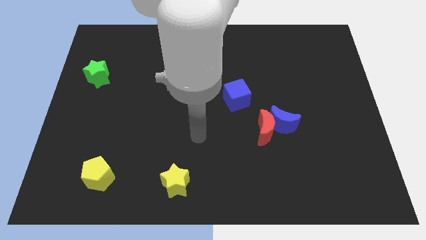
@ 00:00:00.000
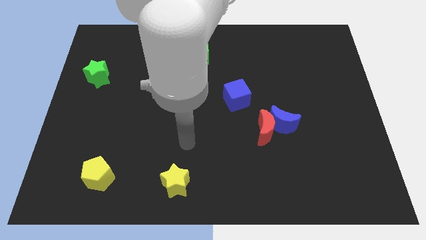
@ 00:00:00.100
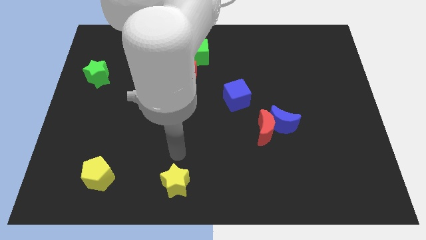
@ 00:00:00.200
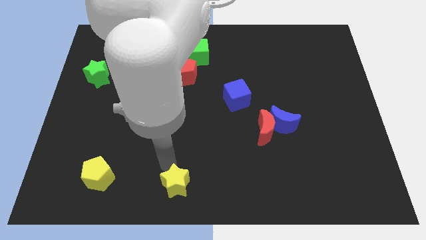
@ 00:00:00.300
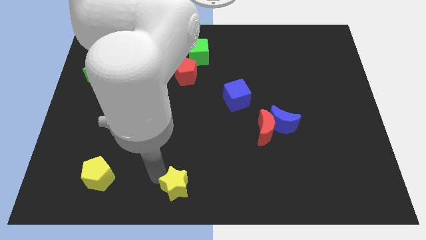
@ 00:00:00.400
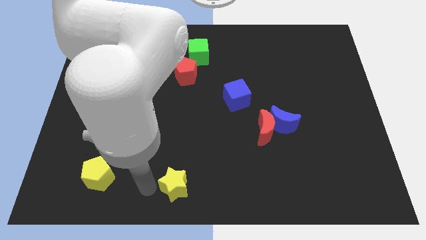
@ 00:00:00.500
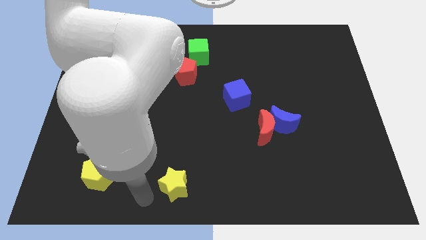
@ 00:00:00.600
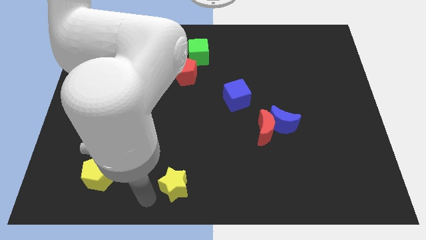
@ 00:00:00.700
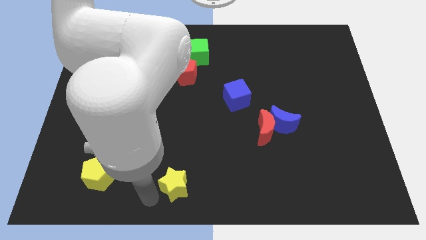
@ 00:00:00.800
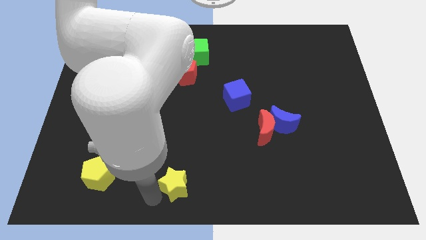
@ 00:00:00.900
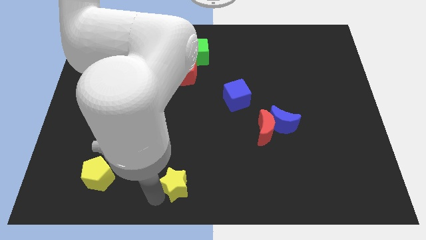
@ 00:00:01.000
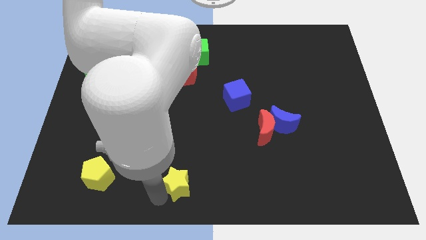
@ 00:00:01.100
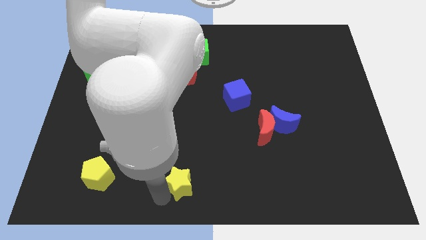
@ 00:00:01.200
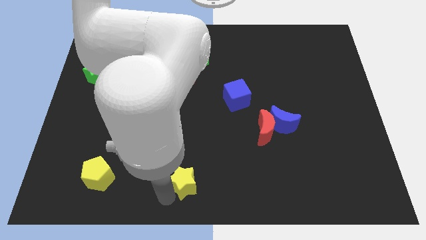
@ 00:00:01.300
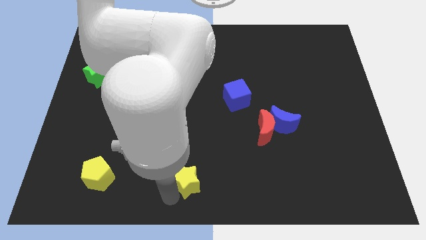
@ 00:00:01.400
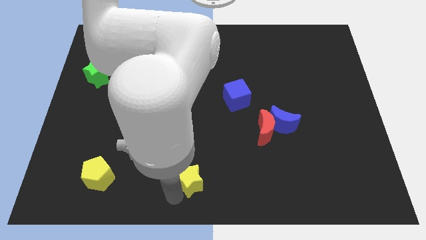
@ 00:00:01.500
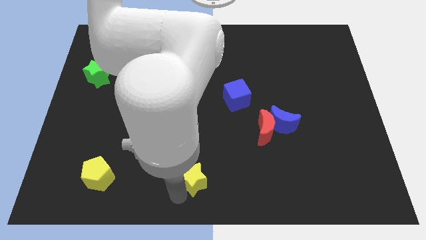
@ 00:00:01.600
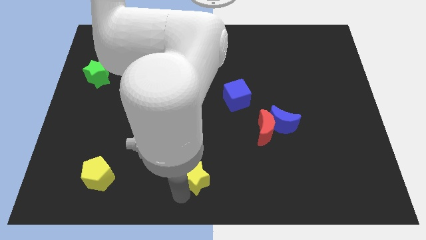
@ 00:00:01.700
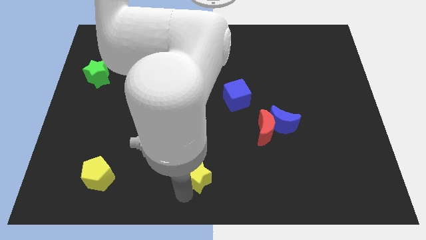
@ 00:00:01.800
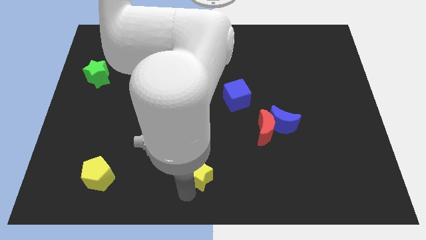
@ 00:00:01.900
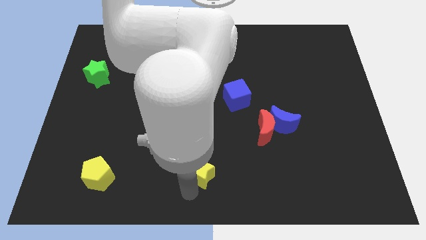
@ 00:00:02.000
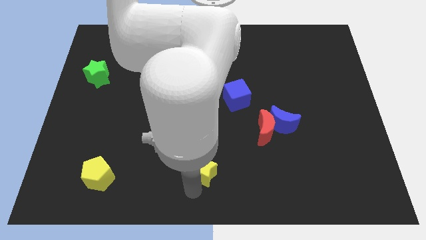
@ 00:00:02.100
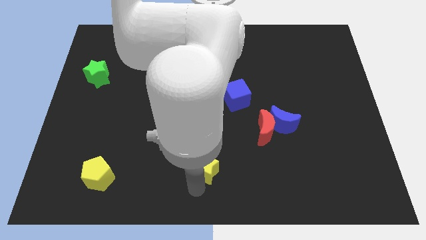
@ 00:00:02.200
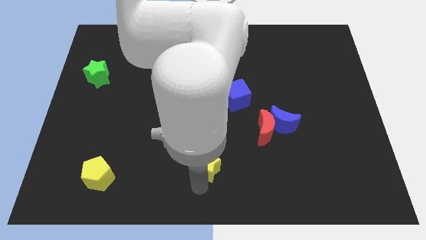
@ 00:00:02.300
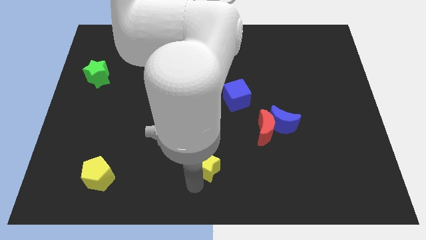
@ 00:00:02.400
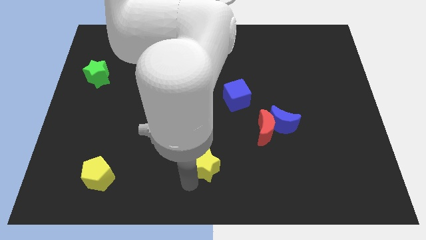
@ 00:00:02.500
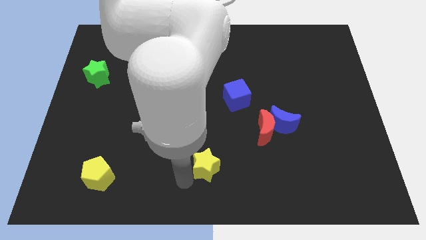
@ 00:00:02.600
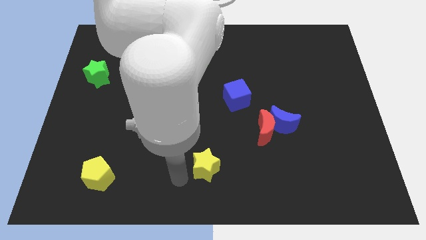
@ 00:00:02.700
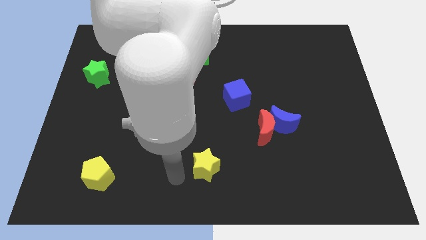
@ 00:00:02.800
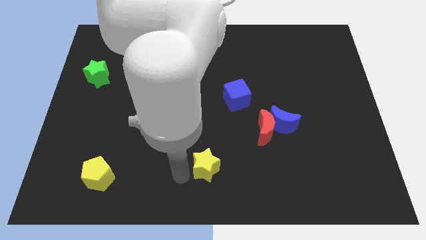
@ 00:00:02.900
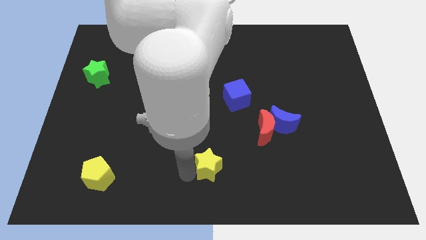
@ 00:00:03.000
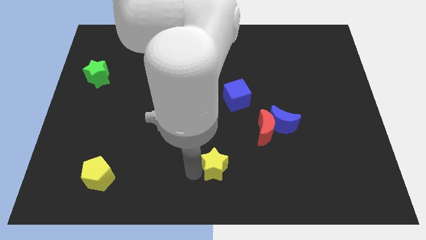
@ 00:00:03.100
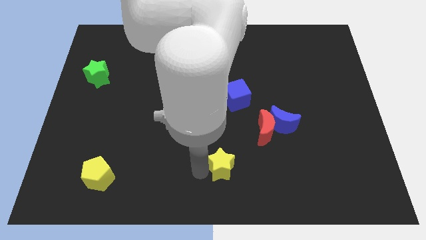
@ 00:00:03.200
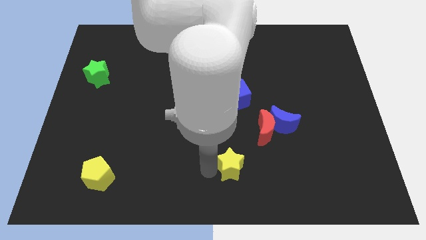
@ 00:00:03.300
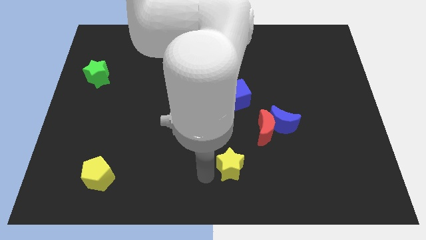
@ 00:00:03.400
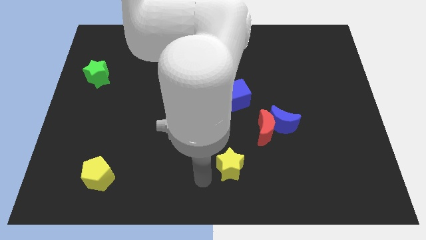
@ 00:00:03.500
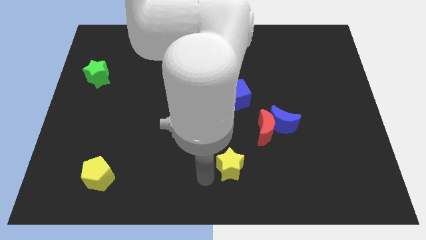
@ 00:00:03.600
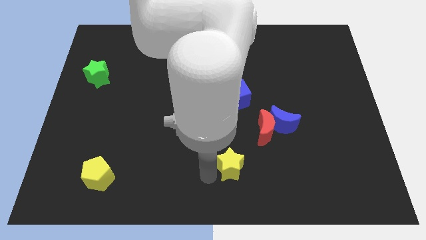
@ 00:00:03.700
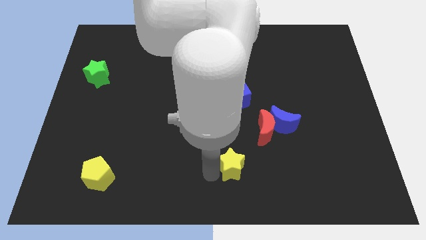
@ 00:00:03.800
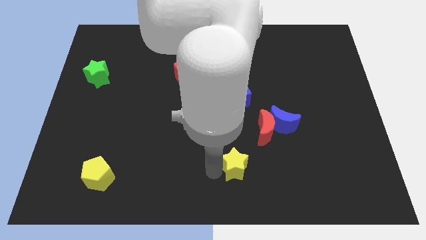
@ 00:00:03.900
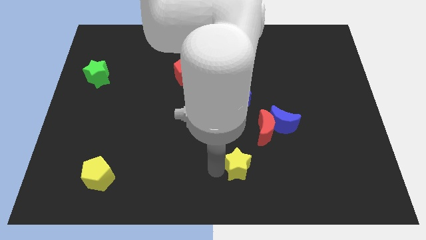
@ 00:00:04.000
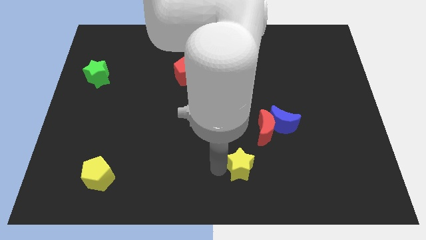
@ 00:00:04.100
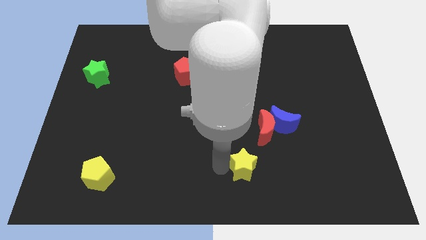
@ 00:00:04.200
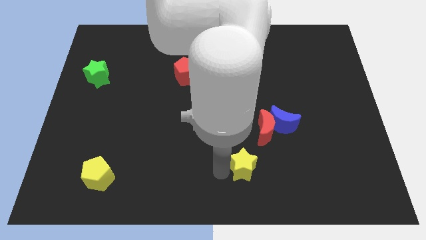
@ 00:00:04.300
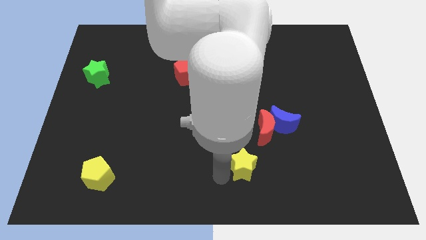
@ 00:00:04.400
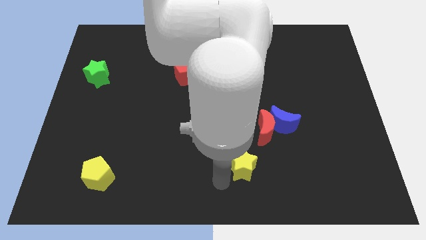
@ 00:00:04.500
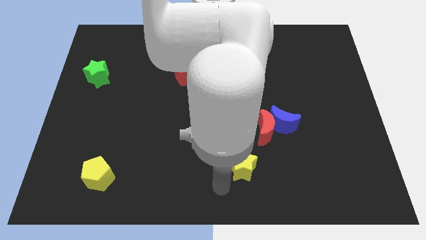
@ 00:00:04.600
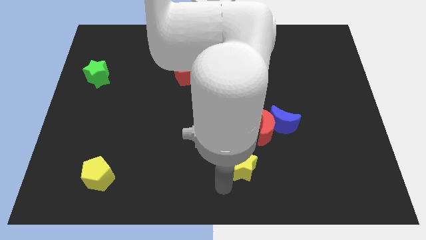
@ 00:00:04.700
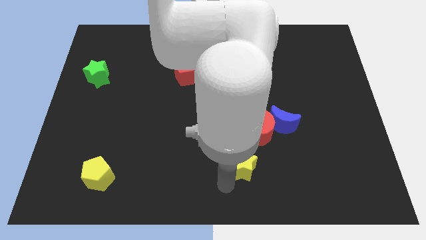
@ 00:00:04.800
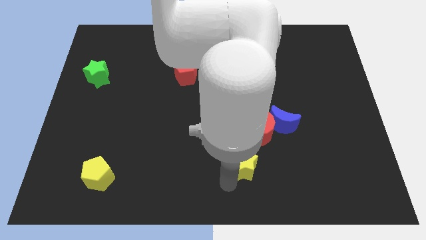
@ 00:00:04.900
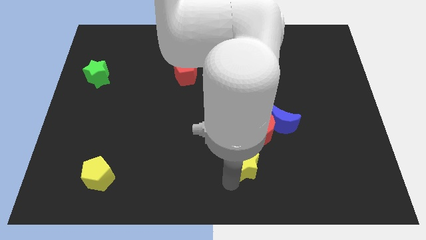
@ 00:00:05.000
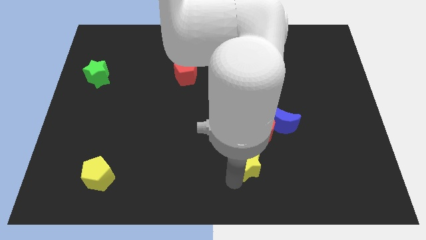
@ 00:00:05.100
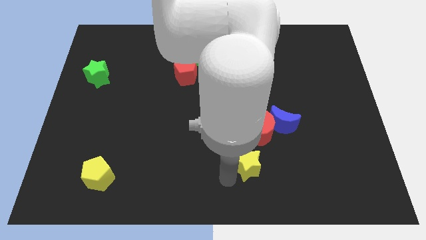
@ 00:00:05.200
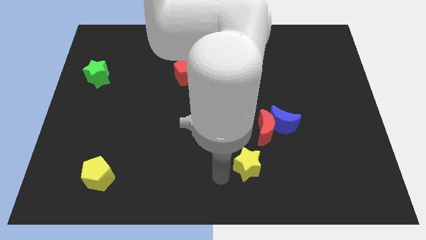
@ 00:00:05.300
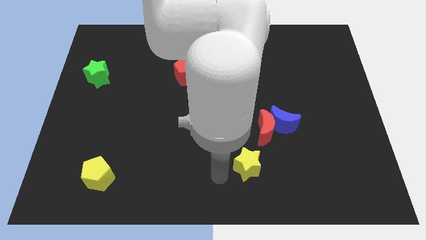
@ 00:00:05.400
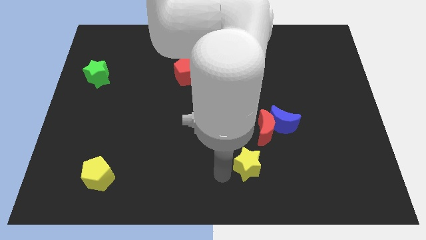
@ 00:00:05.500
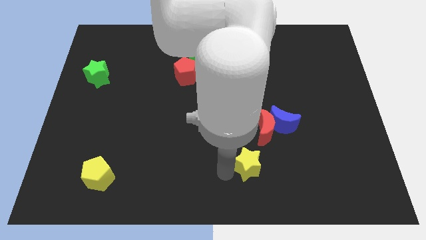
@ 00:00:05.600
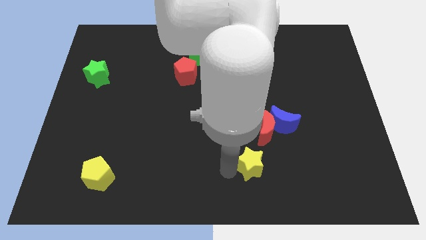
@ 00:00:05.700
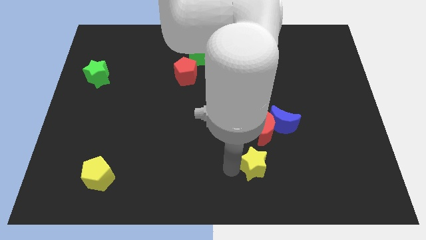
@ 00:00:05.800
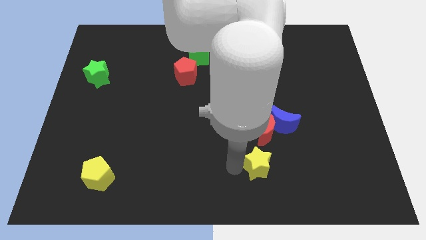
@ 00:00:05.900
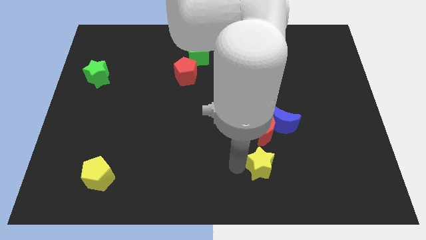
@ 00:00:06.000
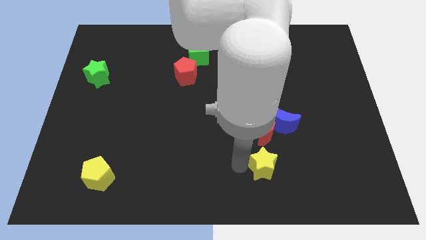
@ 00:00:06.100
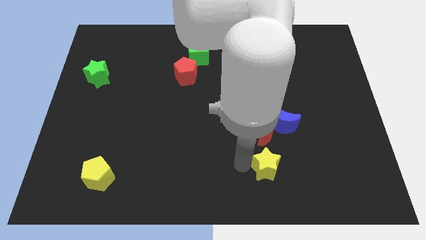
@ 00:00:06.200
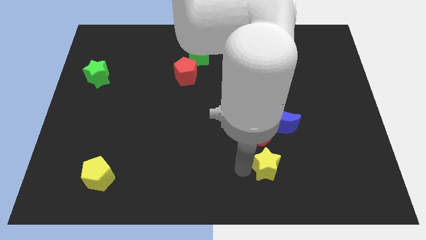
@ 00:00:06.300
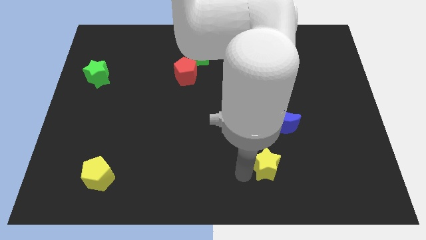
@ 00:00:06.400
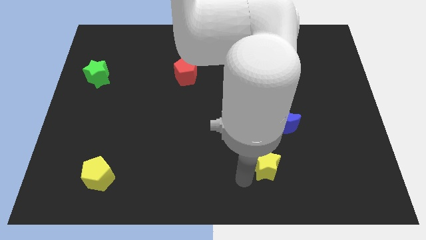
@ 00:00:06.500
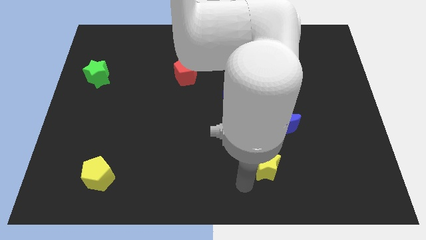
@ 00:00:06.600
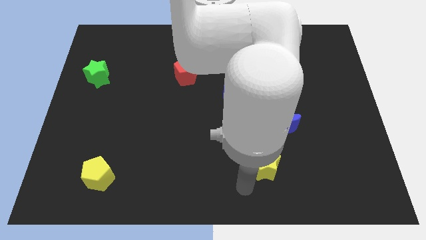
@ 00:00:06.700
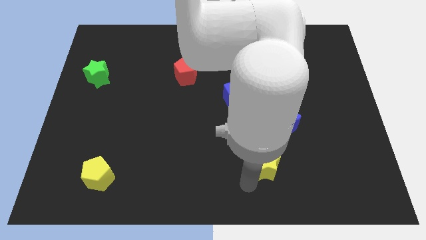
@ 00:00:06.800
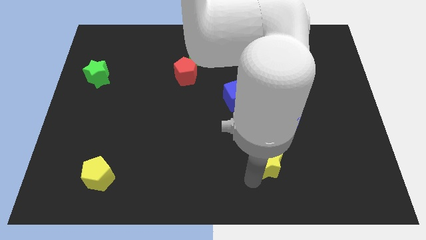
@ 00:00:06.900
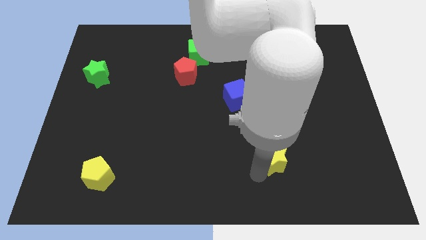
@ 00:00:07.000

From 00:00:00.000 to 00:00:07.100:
put the yellow star to the bottom right of the red moon

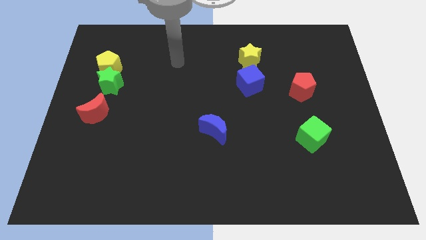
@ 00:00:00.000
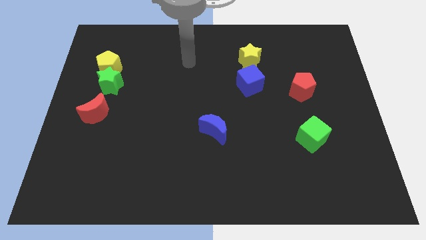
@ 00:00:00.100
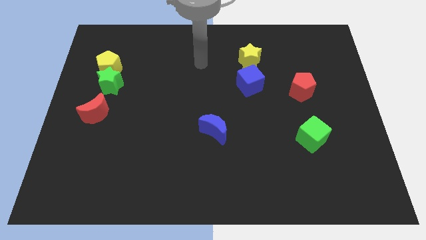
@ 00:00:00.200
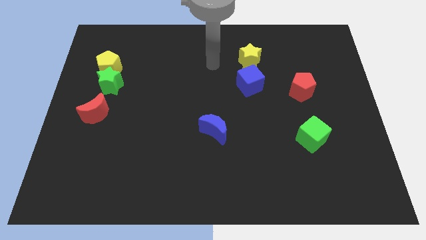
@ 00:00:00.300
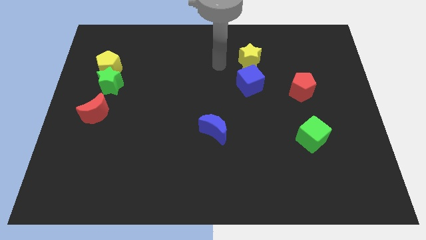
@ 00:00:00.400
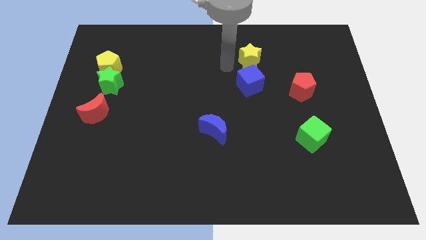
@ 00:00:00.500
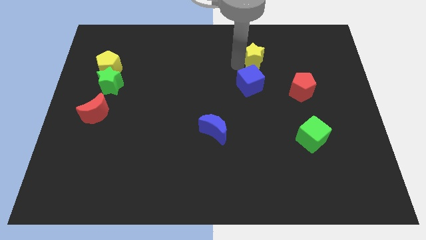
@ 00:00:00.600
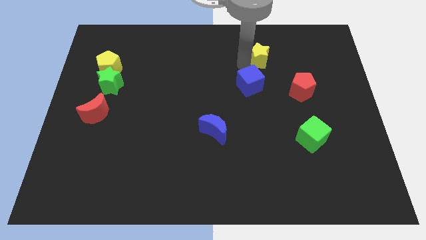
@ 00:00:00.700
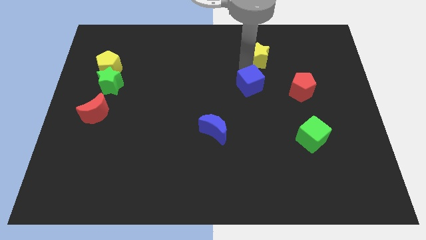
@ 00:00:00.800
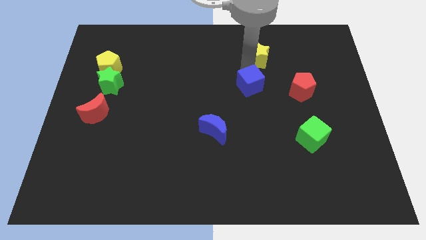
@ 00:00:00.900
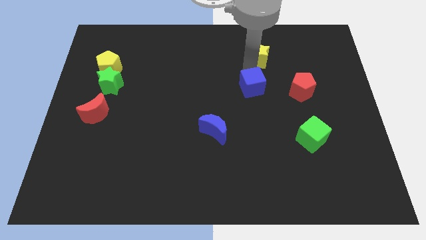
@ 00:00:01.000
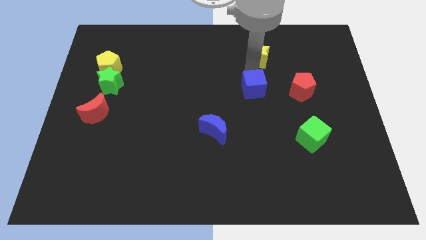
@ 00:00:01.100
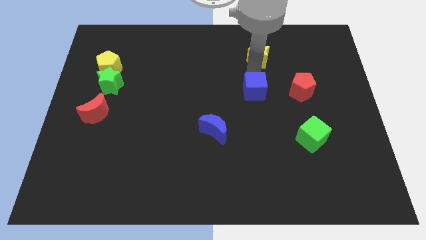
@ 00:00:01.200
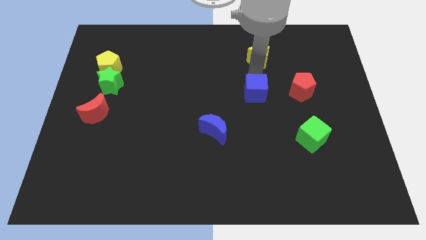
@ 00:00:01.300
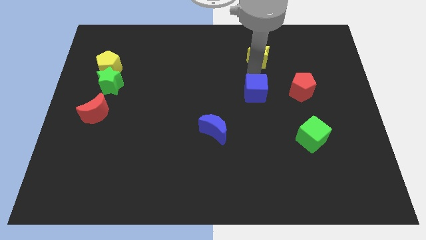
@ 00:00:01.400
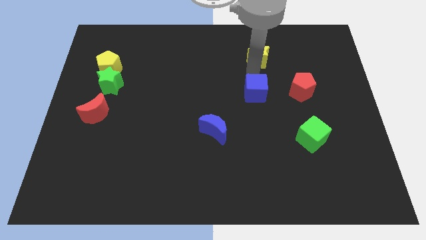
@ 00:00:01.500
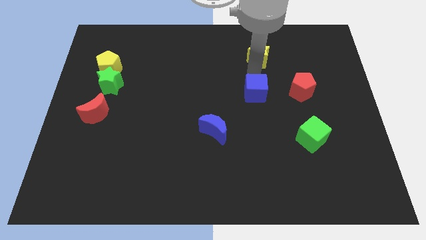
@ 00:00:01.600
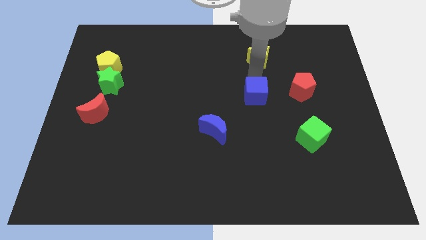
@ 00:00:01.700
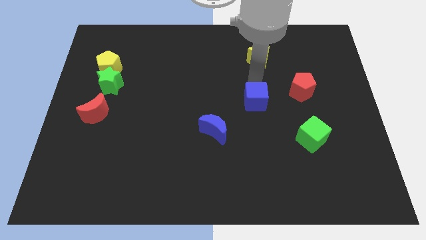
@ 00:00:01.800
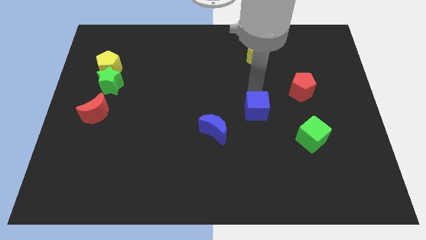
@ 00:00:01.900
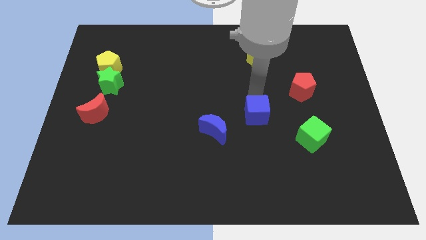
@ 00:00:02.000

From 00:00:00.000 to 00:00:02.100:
slide the blue cube right of the blue moon
